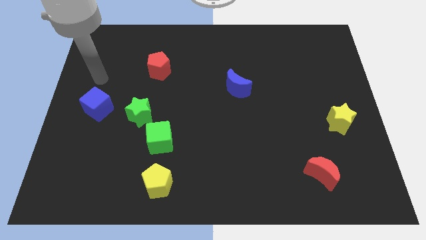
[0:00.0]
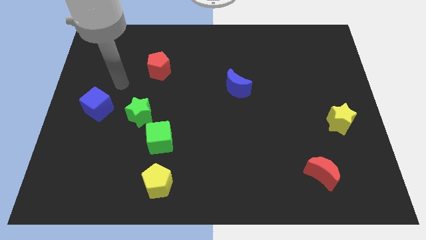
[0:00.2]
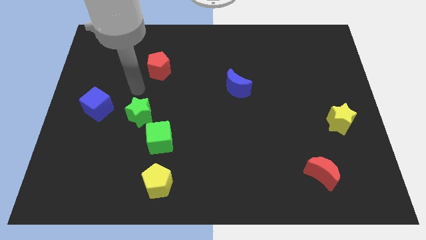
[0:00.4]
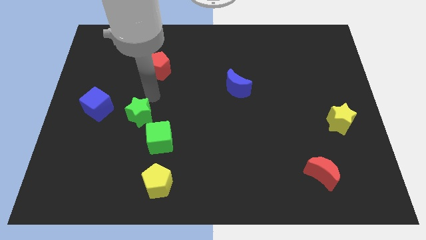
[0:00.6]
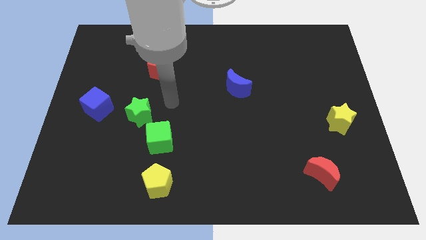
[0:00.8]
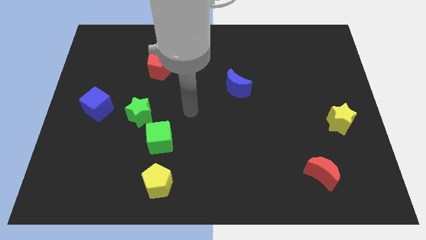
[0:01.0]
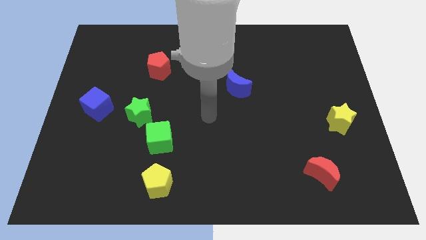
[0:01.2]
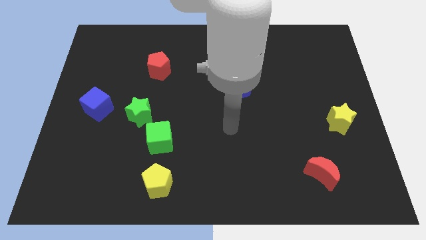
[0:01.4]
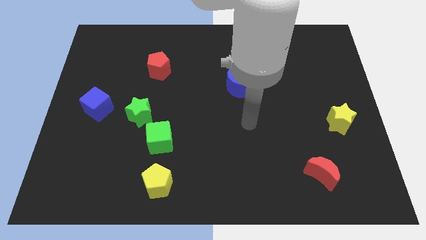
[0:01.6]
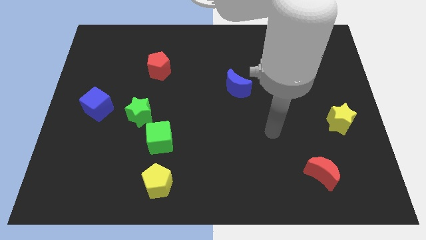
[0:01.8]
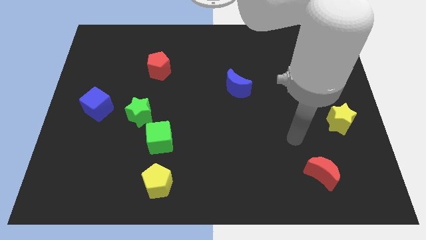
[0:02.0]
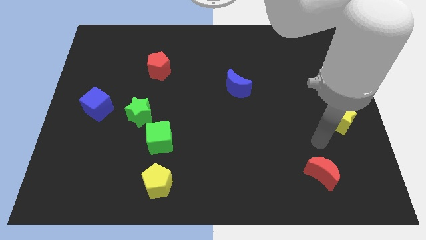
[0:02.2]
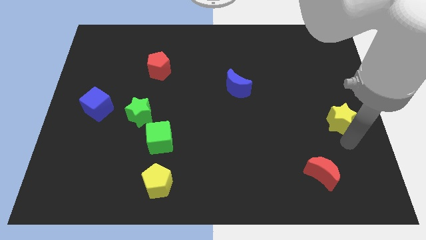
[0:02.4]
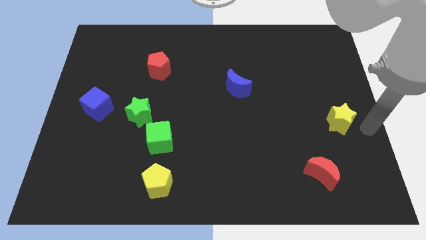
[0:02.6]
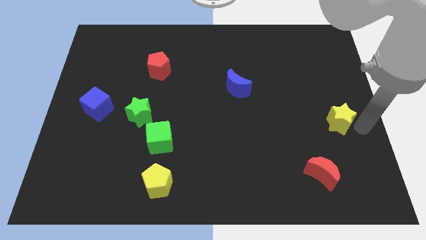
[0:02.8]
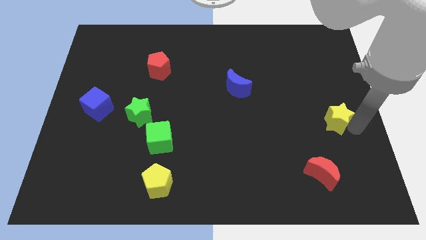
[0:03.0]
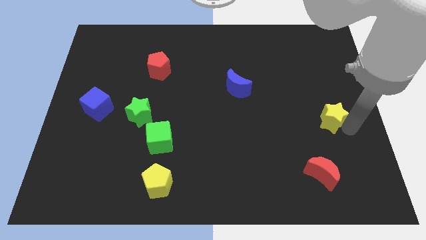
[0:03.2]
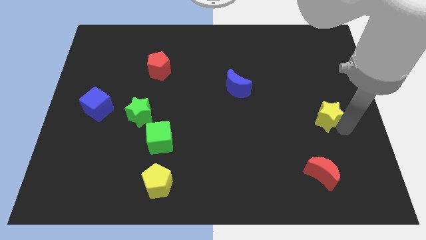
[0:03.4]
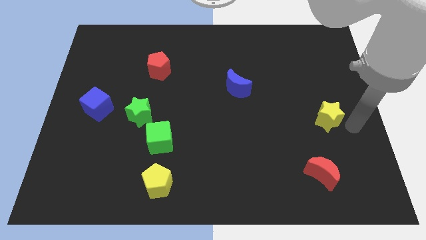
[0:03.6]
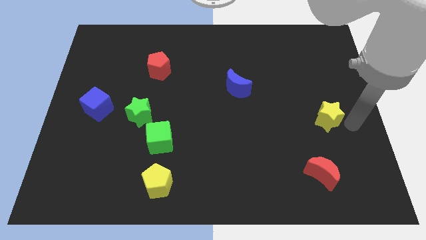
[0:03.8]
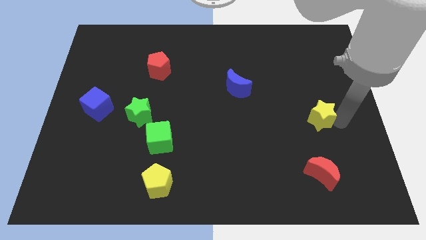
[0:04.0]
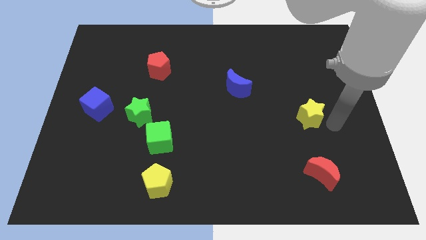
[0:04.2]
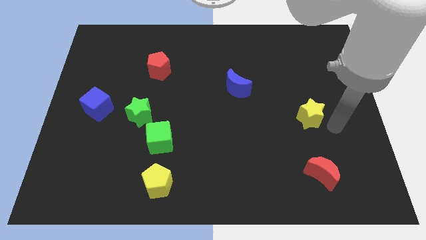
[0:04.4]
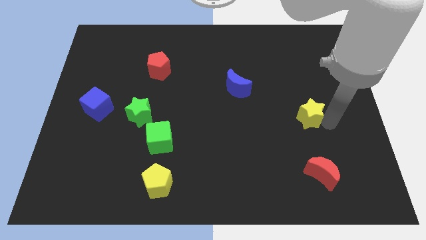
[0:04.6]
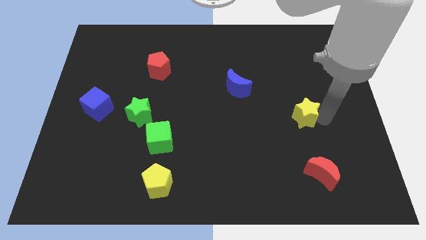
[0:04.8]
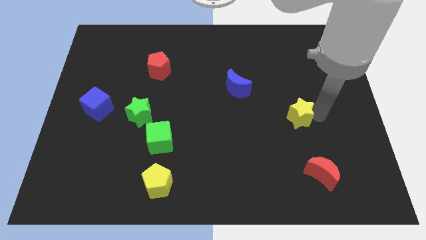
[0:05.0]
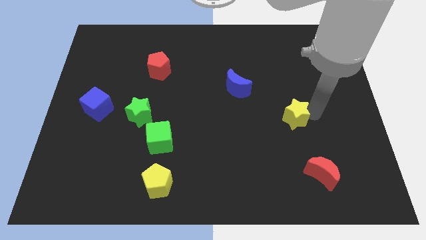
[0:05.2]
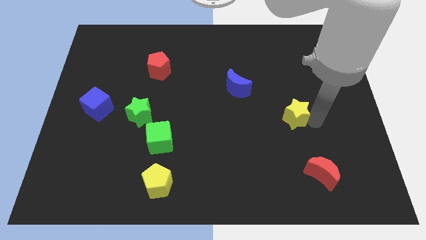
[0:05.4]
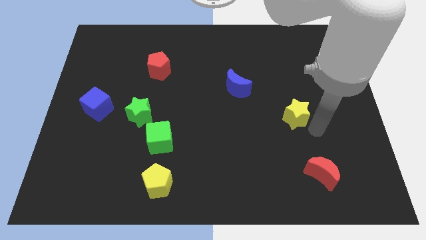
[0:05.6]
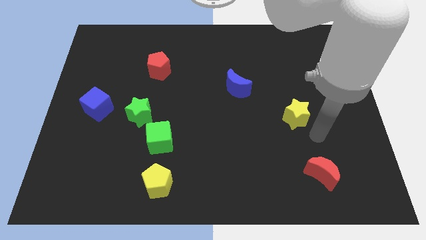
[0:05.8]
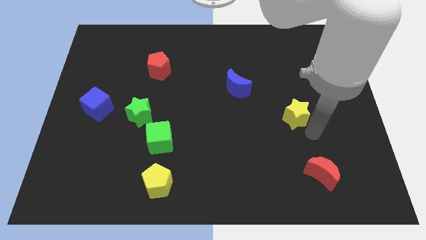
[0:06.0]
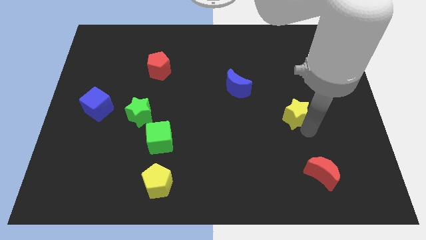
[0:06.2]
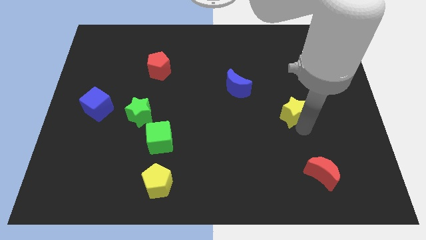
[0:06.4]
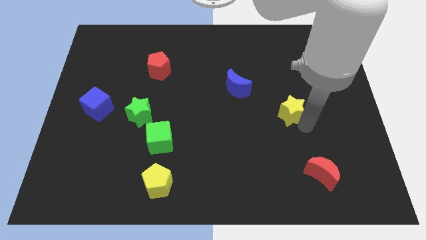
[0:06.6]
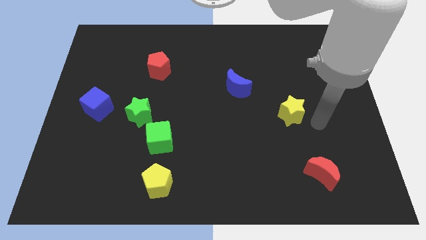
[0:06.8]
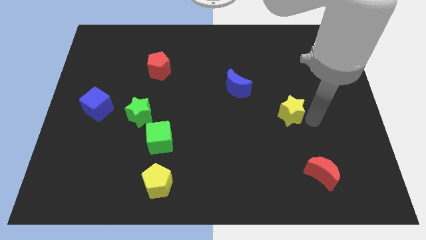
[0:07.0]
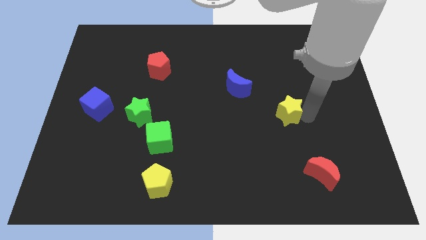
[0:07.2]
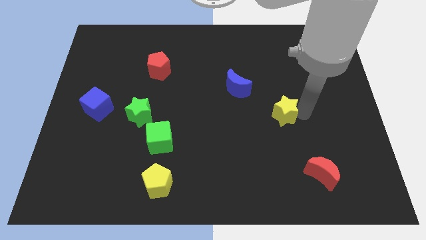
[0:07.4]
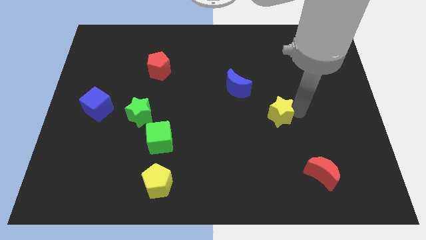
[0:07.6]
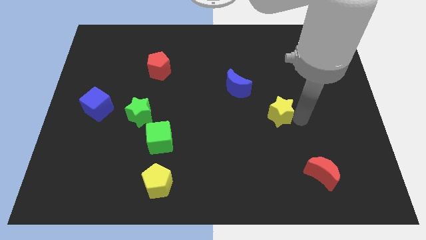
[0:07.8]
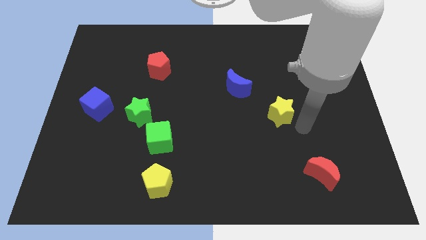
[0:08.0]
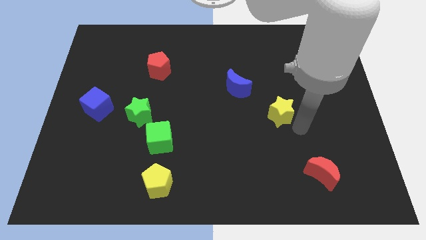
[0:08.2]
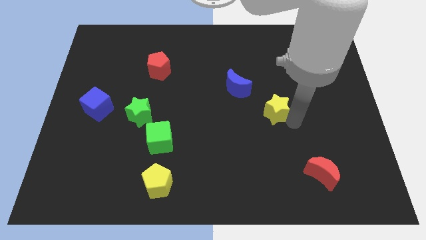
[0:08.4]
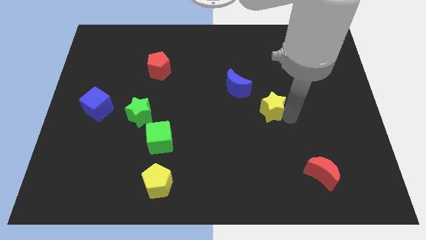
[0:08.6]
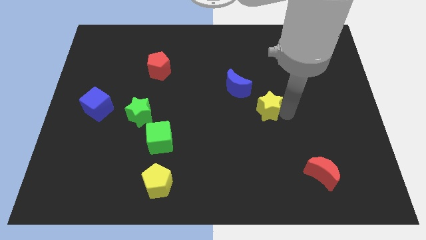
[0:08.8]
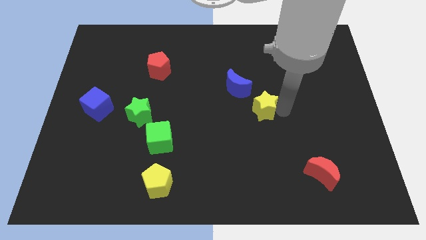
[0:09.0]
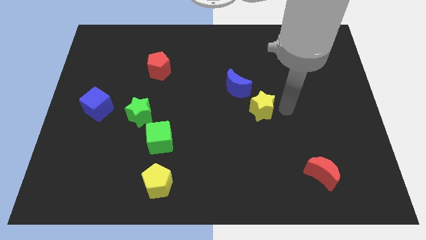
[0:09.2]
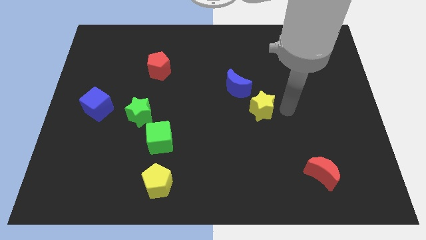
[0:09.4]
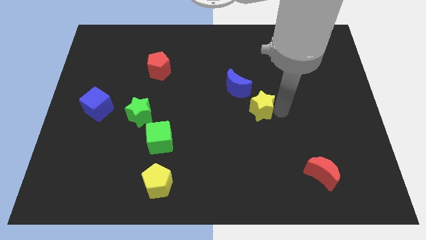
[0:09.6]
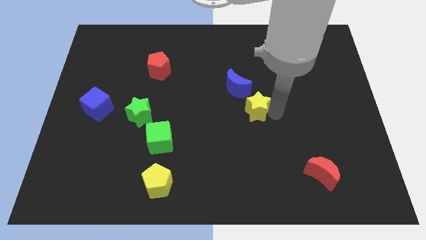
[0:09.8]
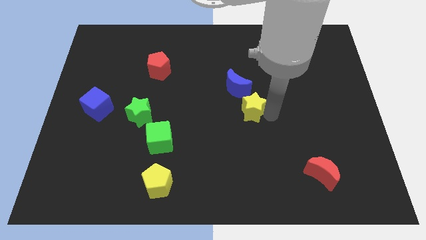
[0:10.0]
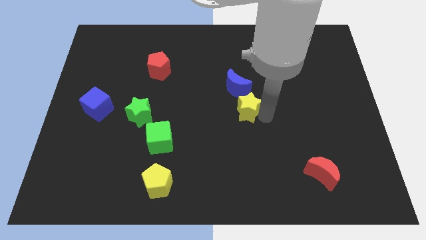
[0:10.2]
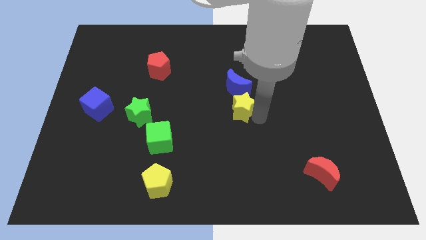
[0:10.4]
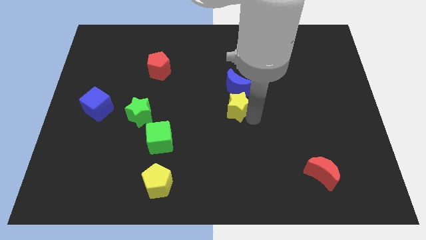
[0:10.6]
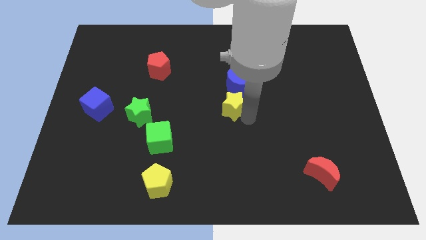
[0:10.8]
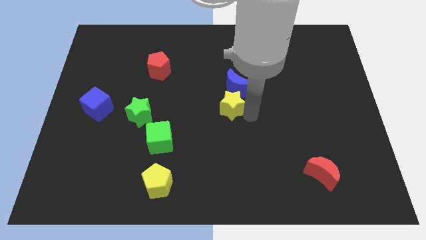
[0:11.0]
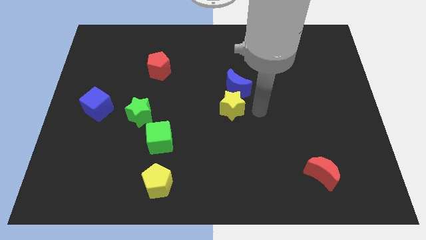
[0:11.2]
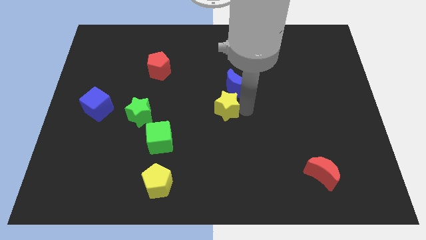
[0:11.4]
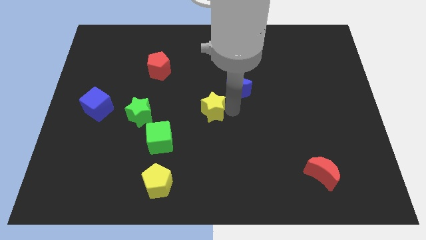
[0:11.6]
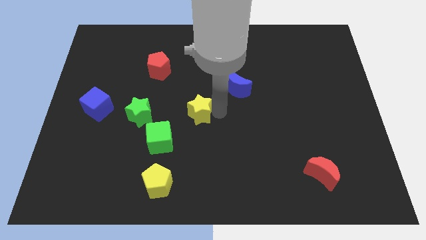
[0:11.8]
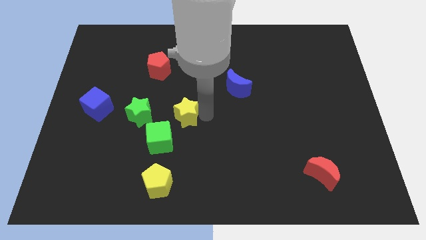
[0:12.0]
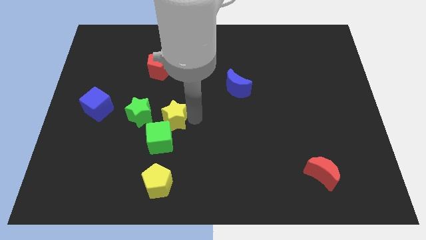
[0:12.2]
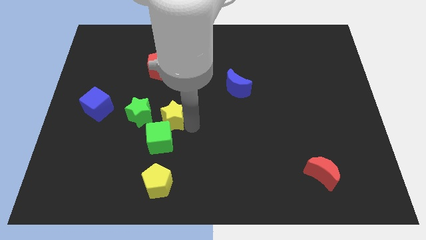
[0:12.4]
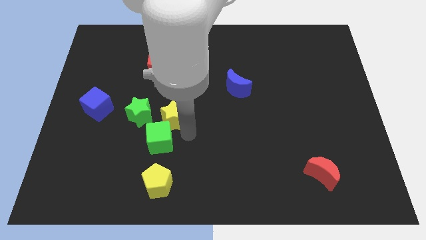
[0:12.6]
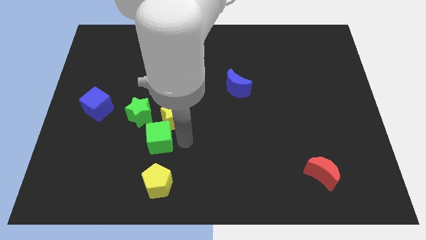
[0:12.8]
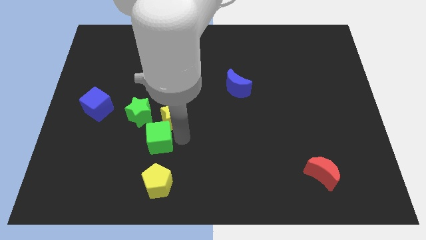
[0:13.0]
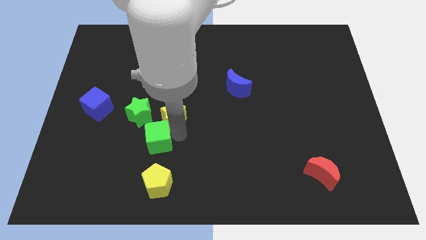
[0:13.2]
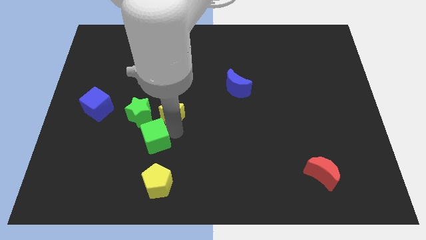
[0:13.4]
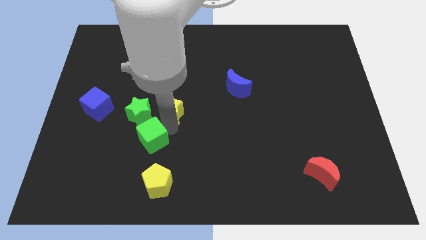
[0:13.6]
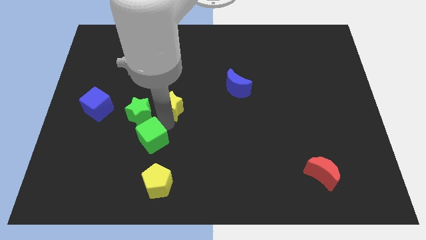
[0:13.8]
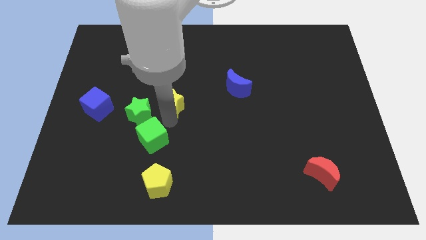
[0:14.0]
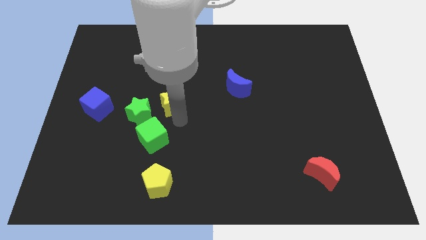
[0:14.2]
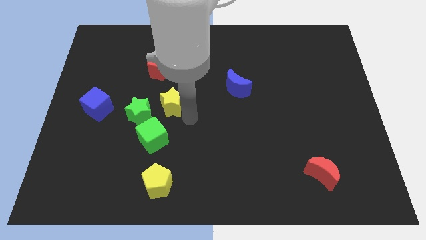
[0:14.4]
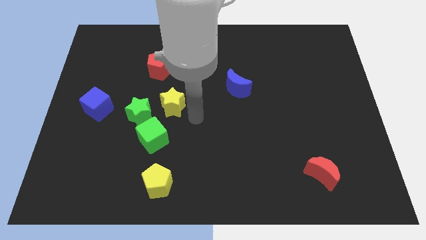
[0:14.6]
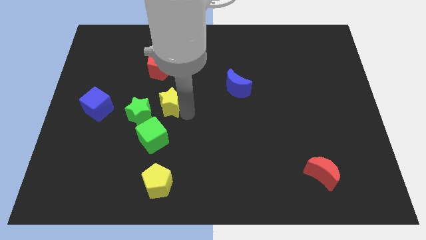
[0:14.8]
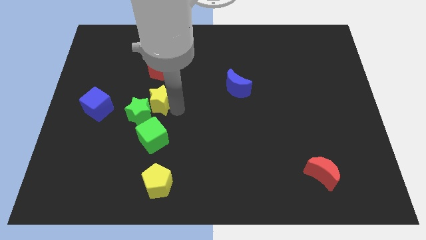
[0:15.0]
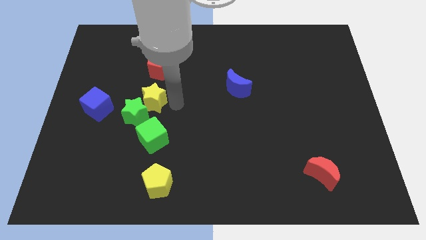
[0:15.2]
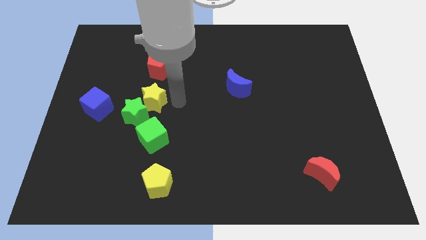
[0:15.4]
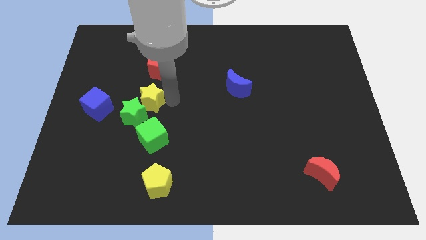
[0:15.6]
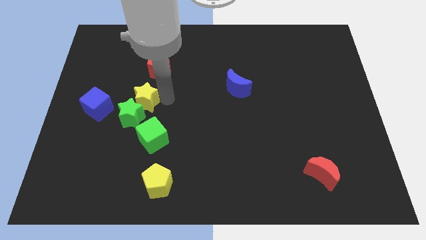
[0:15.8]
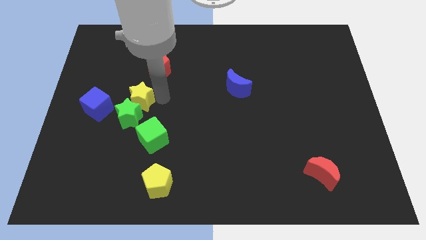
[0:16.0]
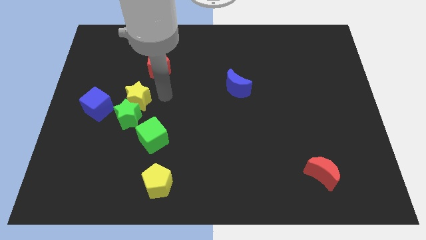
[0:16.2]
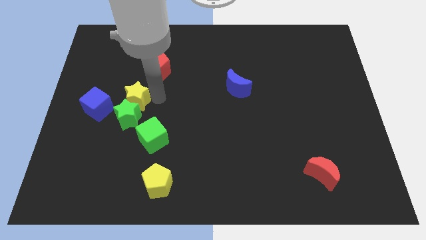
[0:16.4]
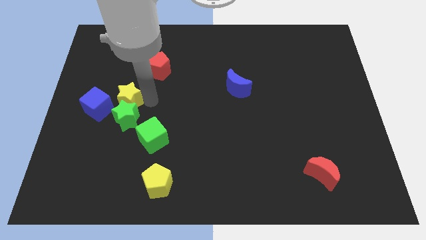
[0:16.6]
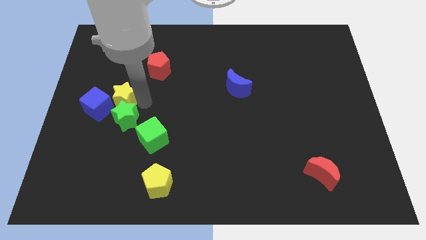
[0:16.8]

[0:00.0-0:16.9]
put the yellow star to the blue cube
